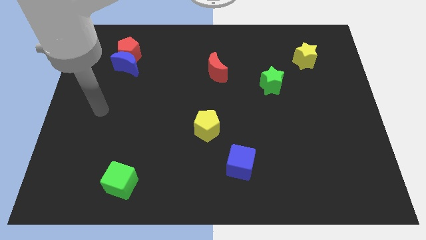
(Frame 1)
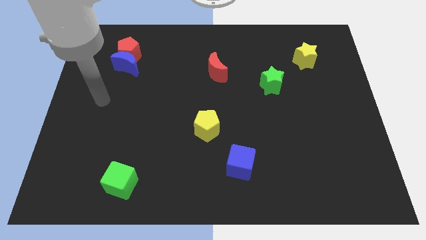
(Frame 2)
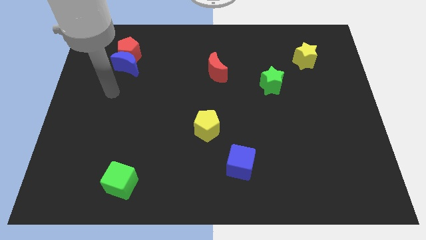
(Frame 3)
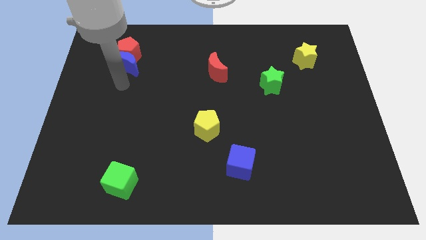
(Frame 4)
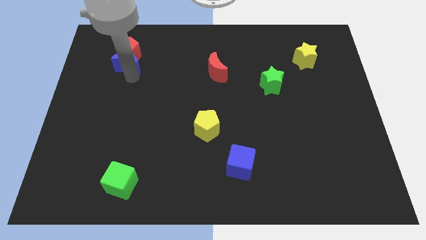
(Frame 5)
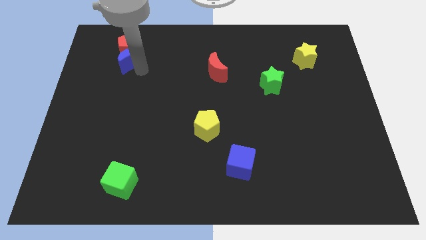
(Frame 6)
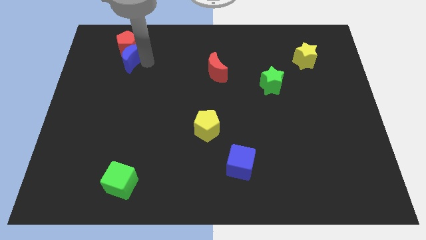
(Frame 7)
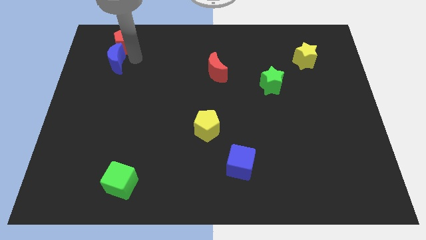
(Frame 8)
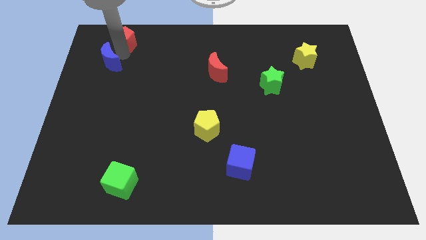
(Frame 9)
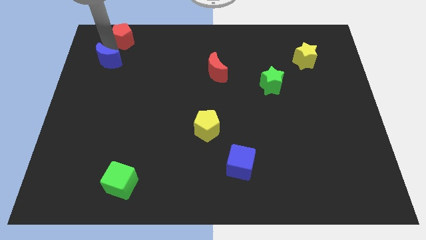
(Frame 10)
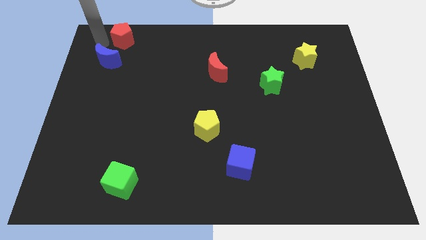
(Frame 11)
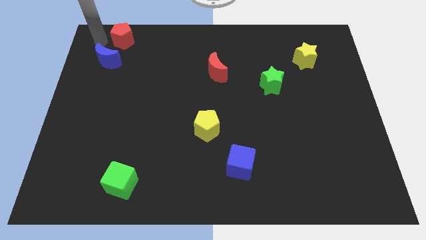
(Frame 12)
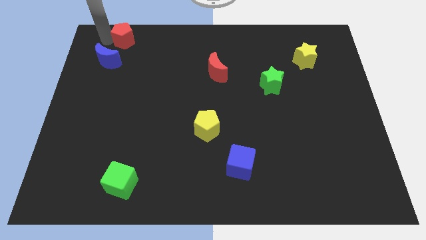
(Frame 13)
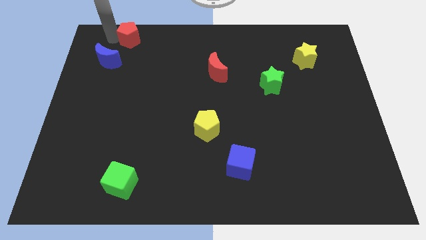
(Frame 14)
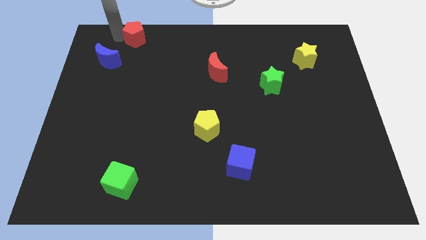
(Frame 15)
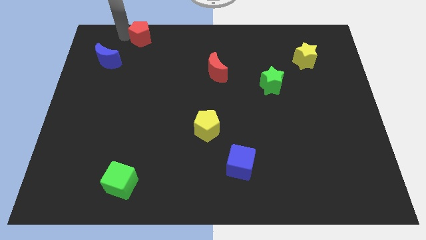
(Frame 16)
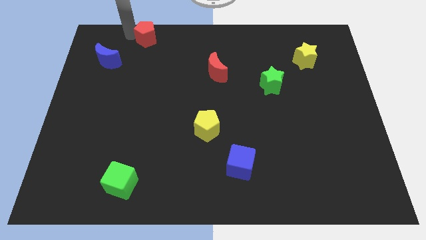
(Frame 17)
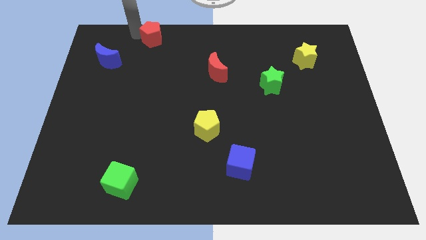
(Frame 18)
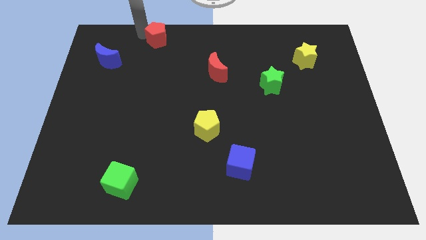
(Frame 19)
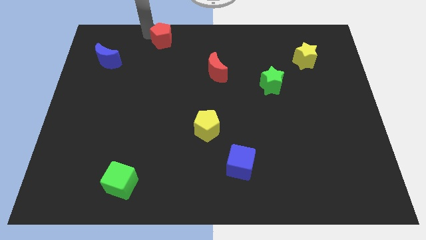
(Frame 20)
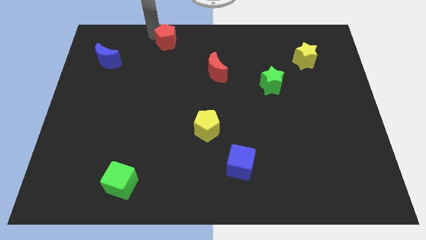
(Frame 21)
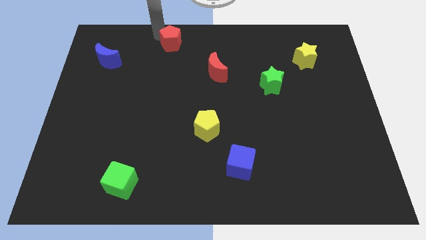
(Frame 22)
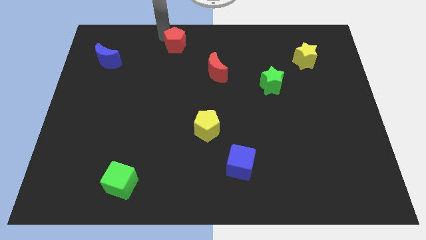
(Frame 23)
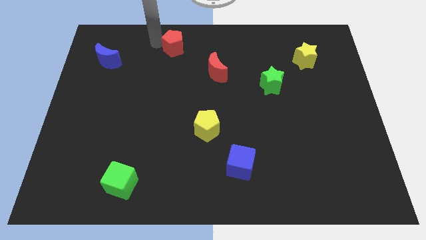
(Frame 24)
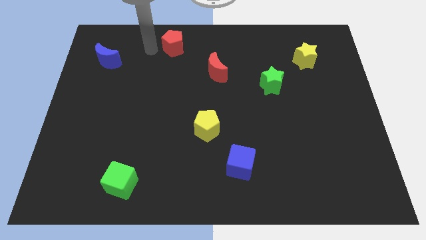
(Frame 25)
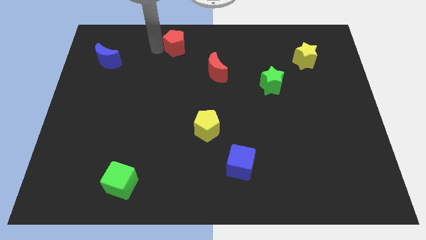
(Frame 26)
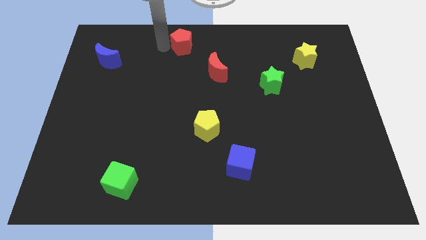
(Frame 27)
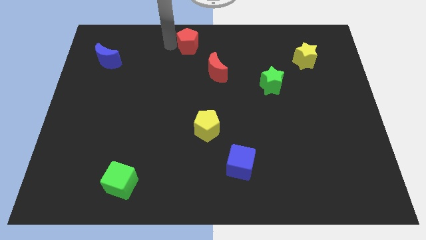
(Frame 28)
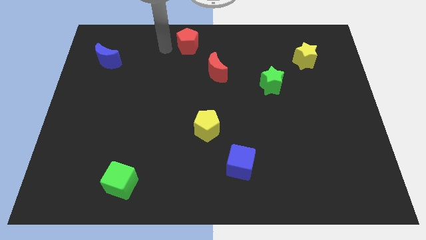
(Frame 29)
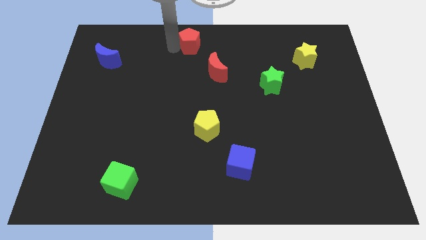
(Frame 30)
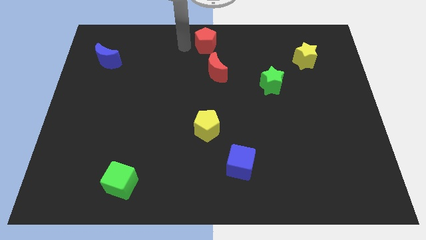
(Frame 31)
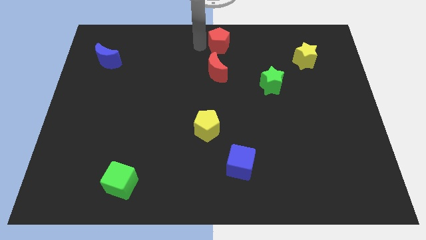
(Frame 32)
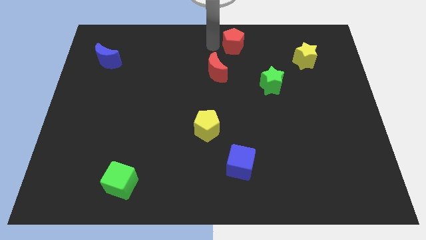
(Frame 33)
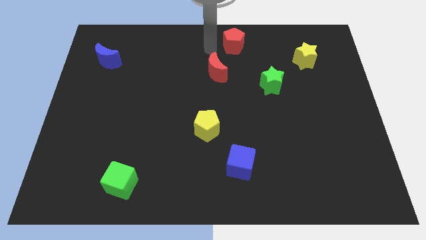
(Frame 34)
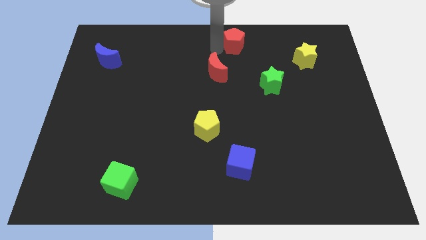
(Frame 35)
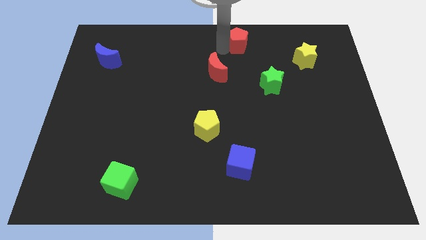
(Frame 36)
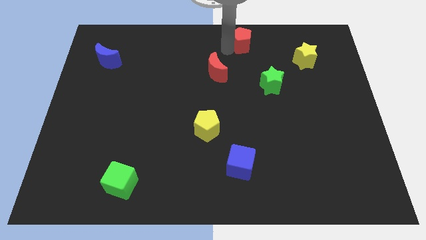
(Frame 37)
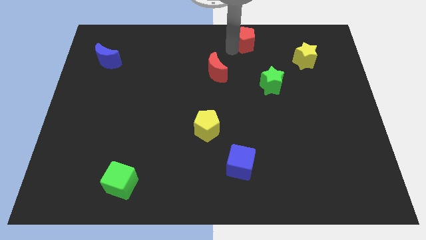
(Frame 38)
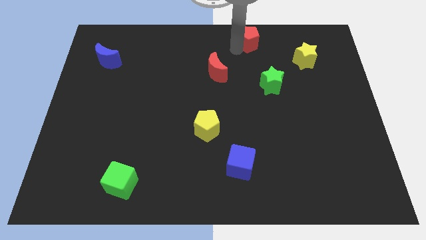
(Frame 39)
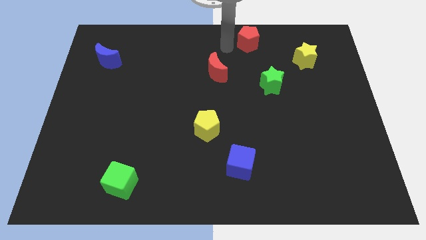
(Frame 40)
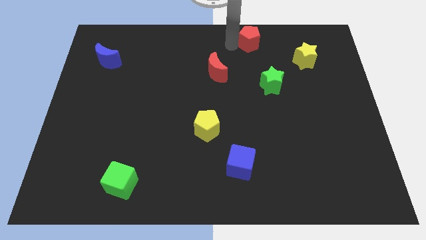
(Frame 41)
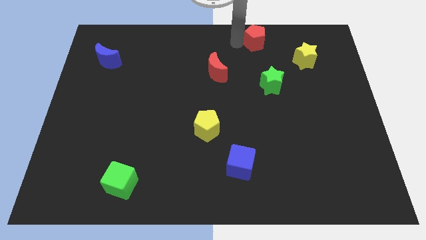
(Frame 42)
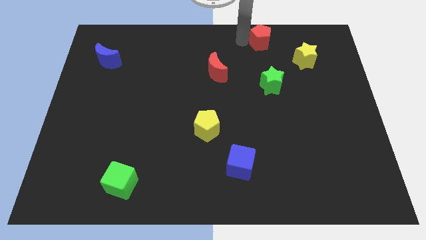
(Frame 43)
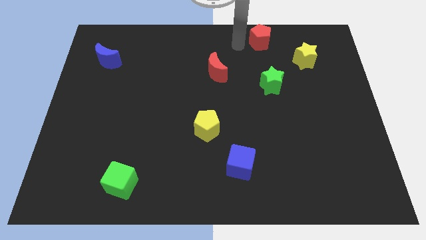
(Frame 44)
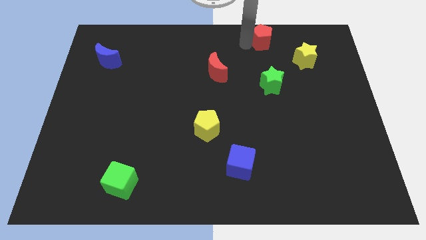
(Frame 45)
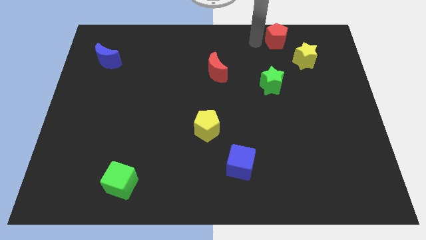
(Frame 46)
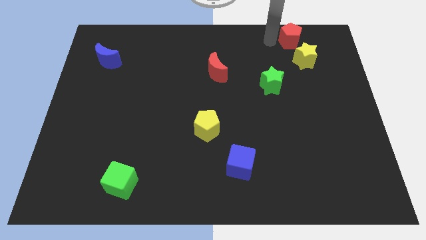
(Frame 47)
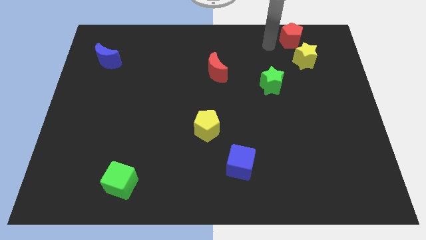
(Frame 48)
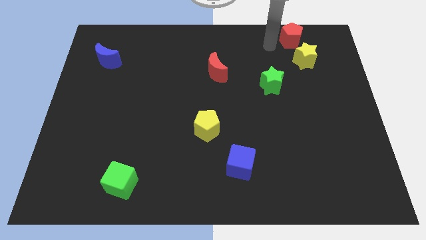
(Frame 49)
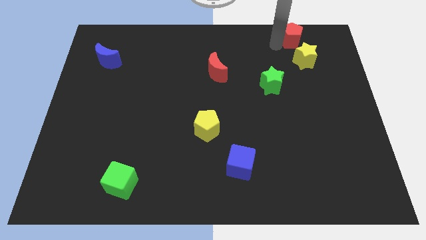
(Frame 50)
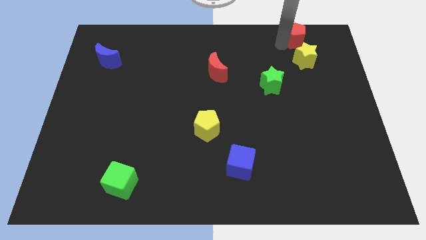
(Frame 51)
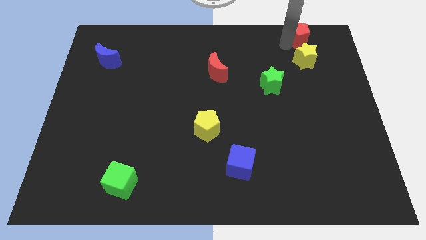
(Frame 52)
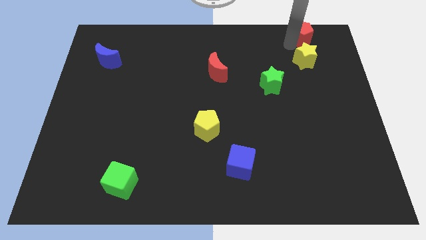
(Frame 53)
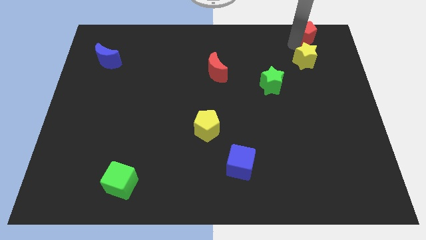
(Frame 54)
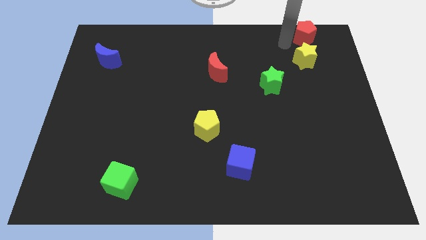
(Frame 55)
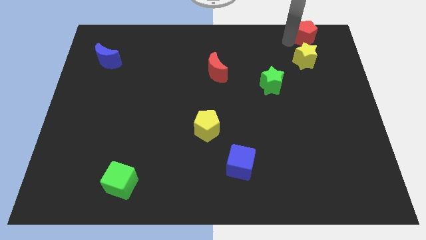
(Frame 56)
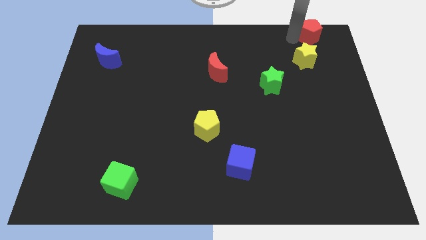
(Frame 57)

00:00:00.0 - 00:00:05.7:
push the red pentagon to the upper right corner

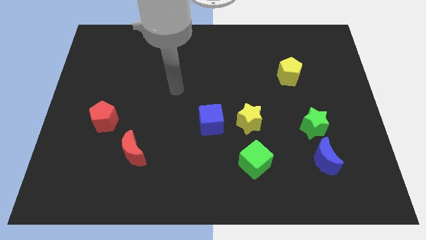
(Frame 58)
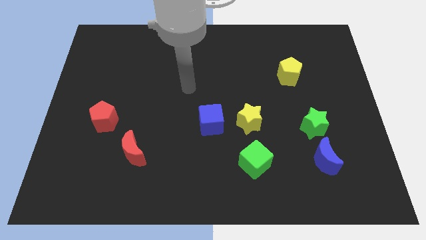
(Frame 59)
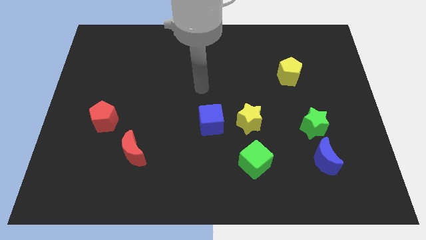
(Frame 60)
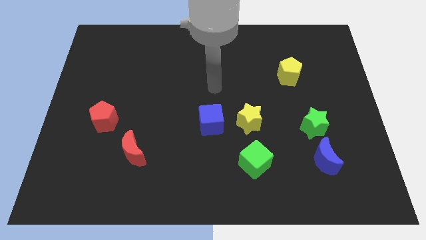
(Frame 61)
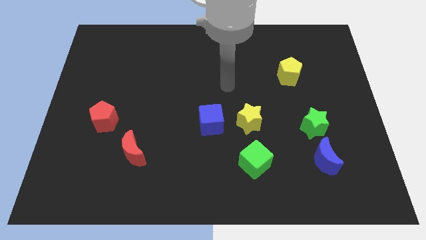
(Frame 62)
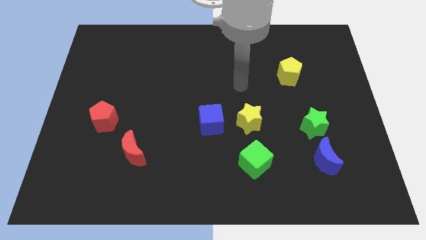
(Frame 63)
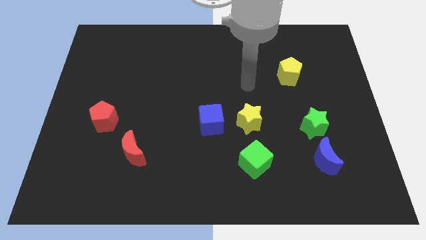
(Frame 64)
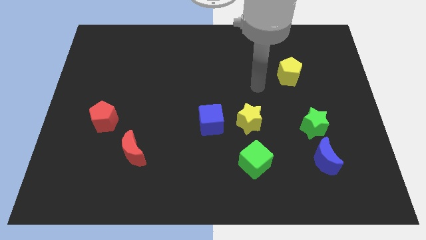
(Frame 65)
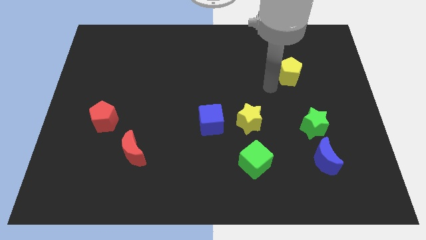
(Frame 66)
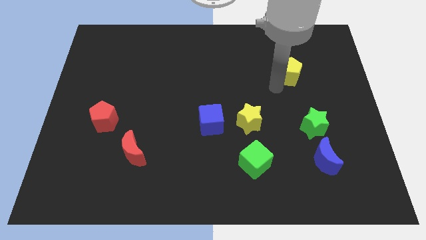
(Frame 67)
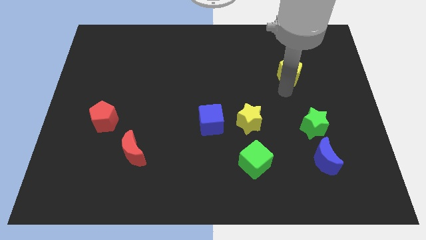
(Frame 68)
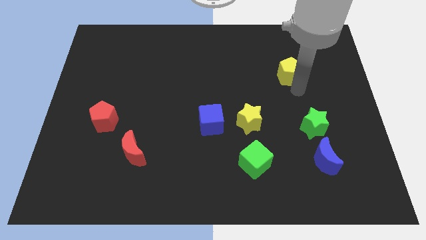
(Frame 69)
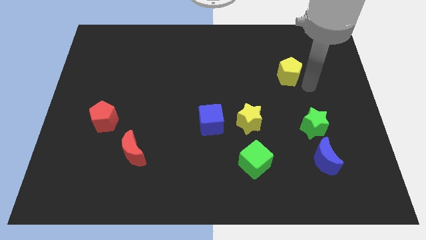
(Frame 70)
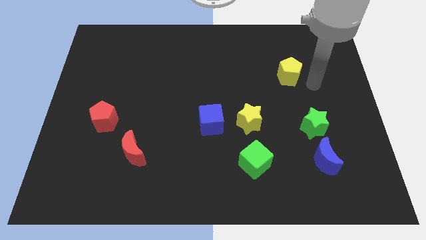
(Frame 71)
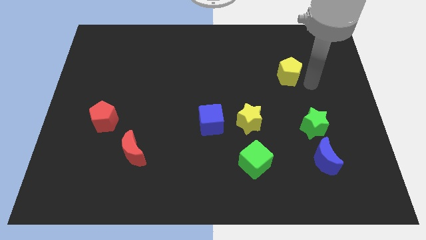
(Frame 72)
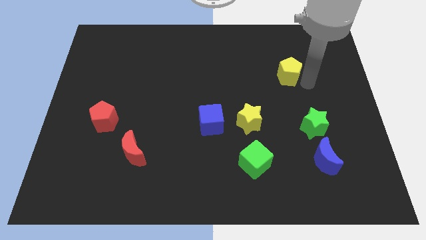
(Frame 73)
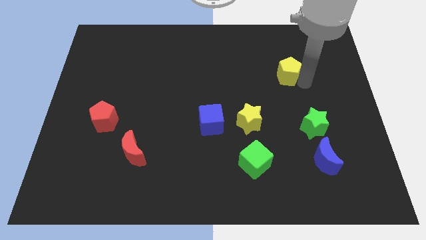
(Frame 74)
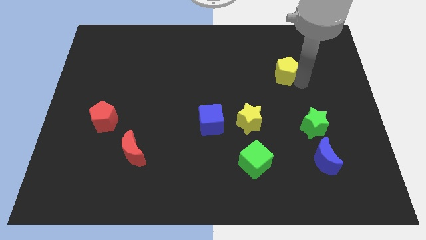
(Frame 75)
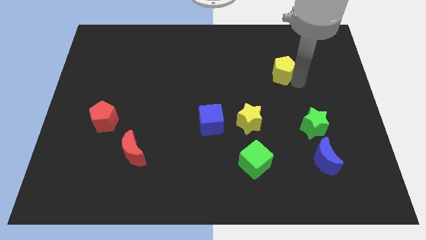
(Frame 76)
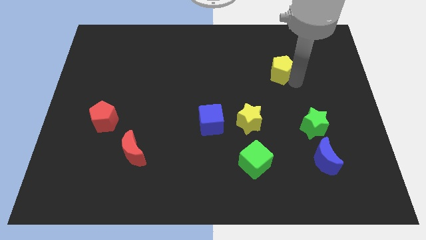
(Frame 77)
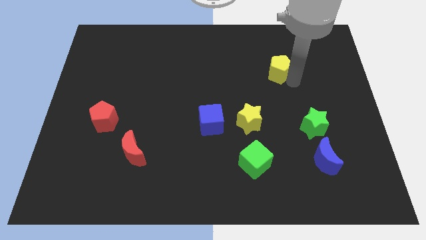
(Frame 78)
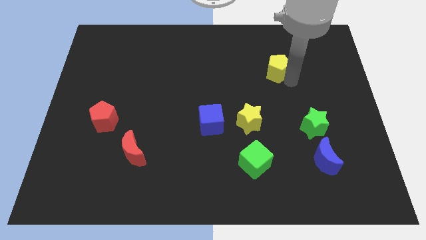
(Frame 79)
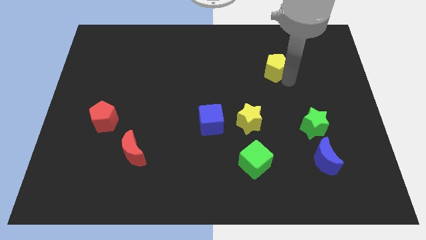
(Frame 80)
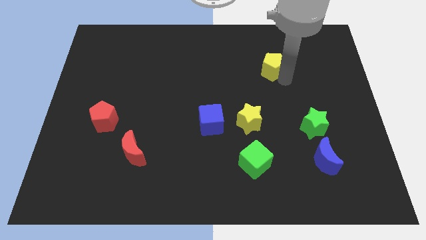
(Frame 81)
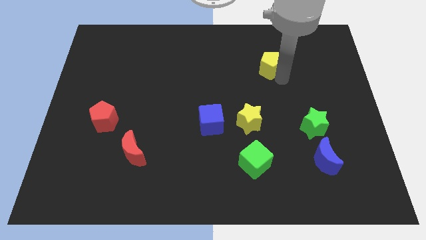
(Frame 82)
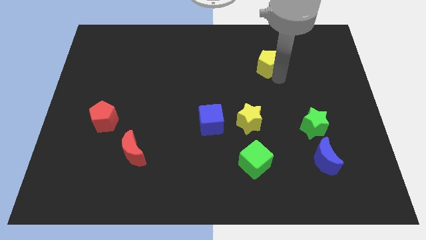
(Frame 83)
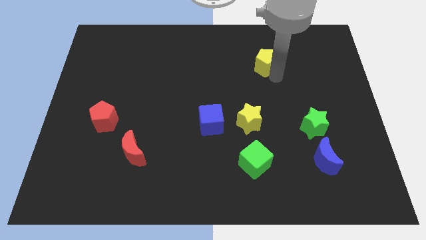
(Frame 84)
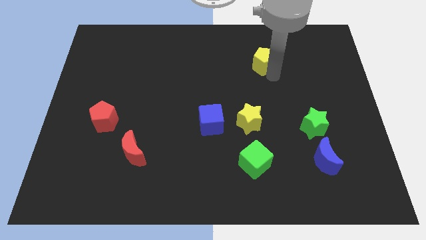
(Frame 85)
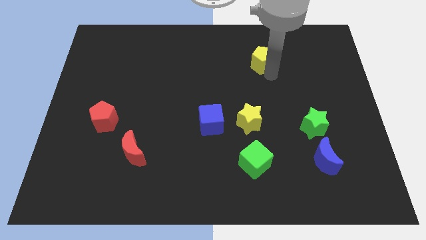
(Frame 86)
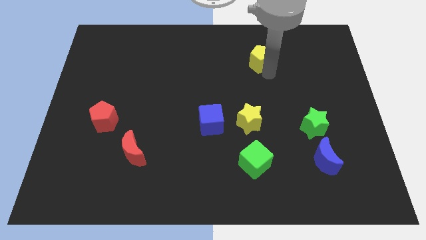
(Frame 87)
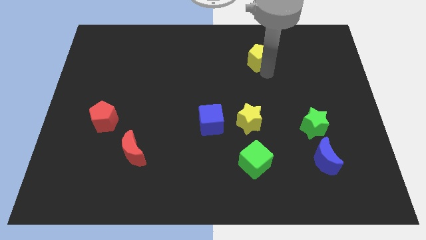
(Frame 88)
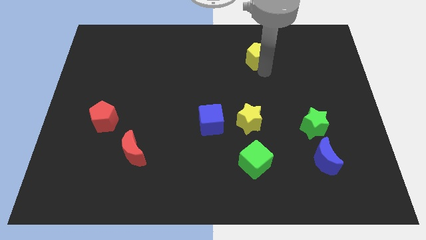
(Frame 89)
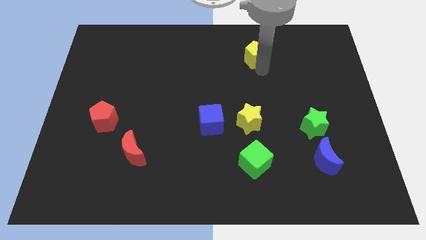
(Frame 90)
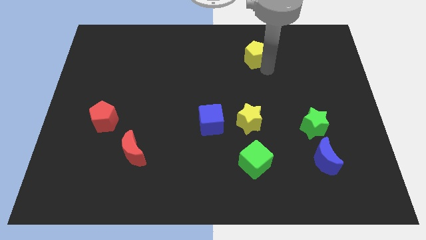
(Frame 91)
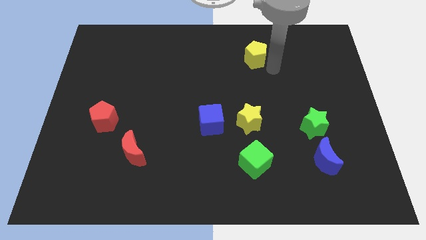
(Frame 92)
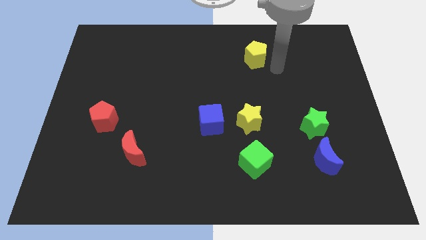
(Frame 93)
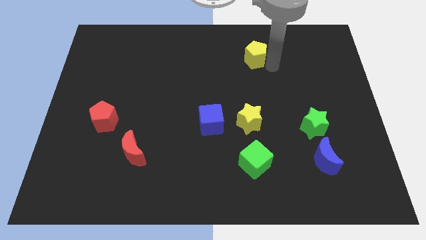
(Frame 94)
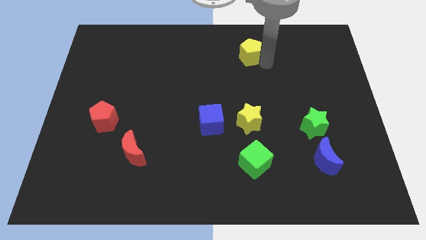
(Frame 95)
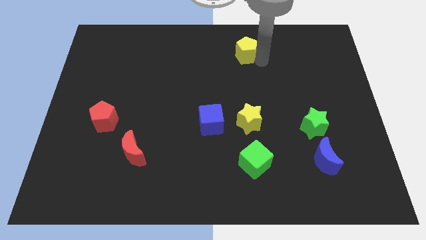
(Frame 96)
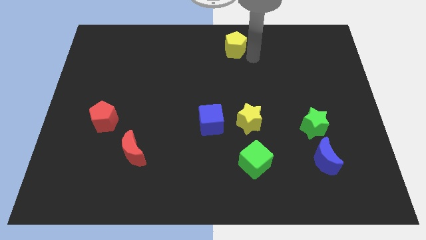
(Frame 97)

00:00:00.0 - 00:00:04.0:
move the yellow pentagon to the top side
